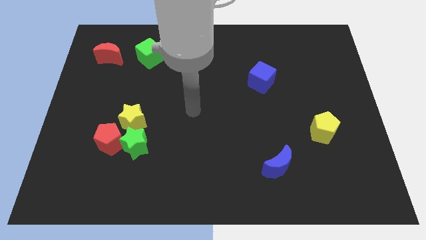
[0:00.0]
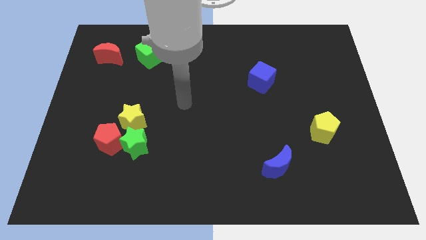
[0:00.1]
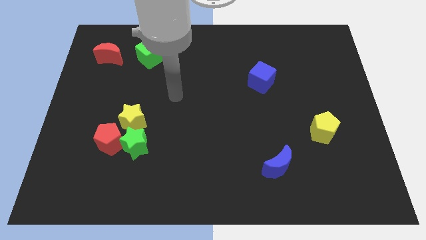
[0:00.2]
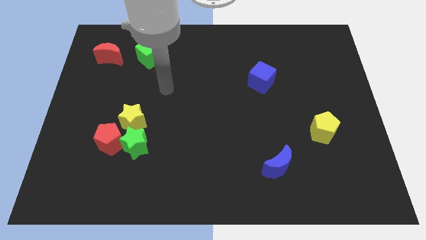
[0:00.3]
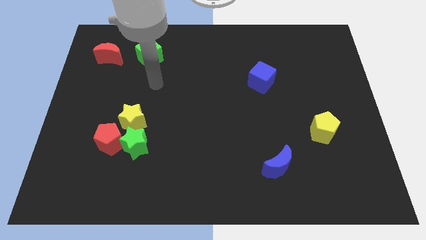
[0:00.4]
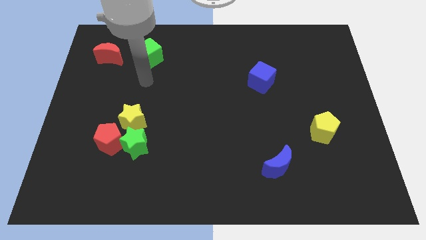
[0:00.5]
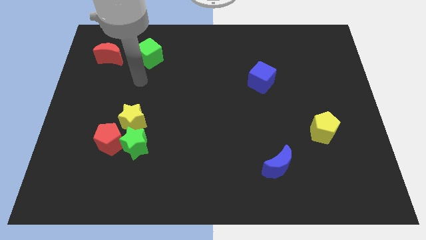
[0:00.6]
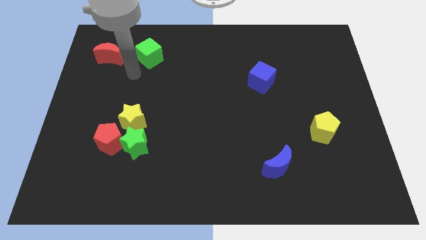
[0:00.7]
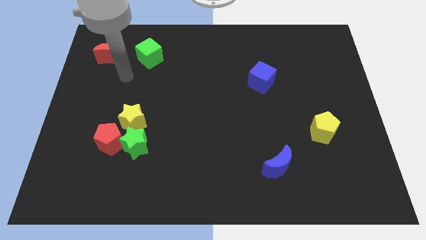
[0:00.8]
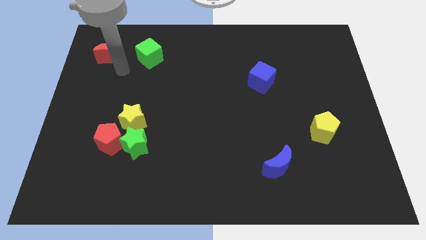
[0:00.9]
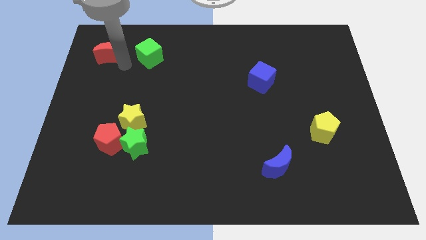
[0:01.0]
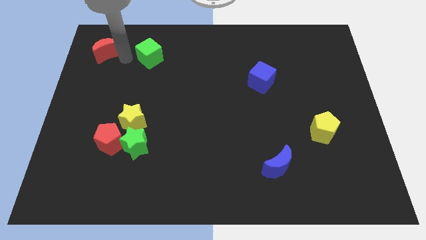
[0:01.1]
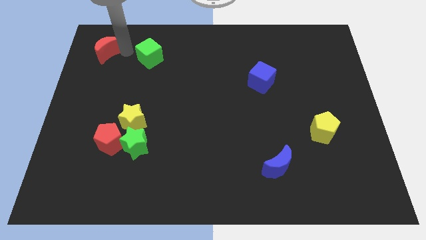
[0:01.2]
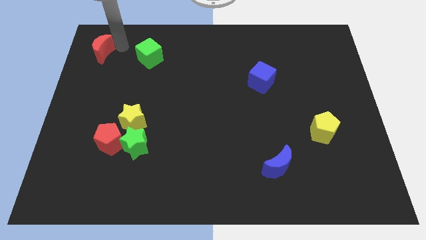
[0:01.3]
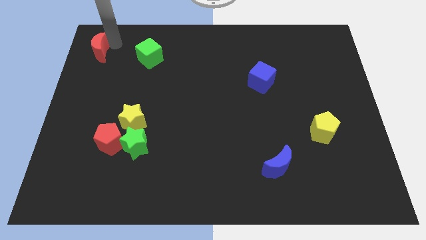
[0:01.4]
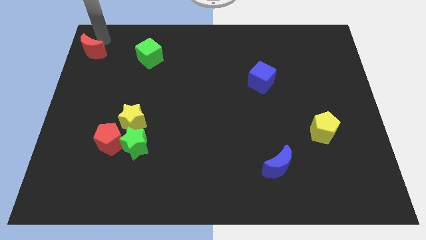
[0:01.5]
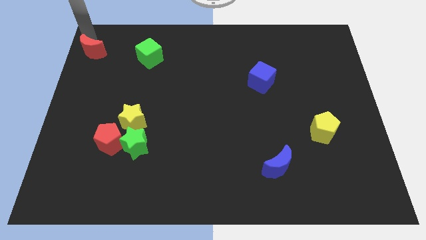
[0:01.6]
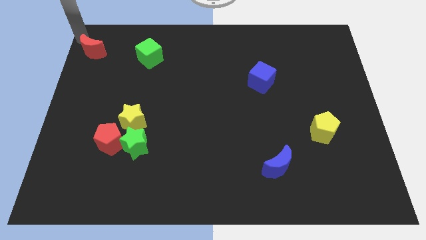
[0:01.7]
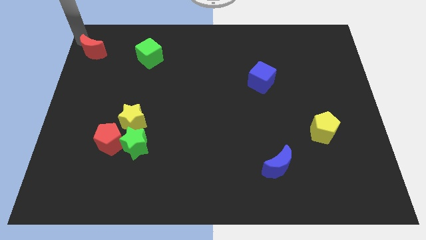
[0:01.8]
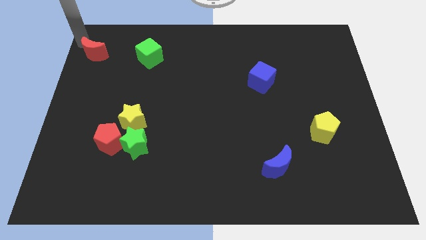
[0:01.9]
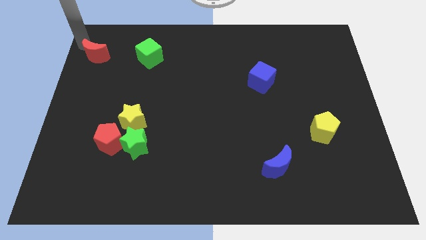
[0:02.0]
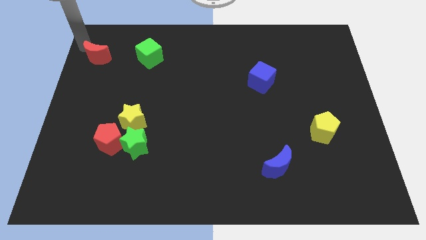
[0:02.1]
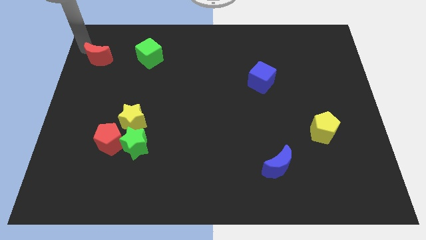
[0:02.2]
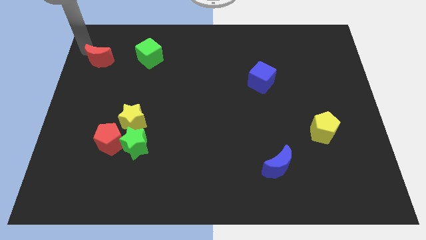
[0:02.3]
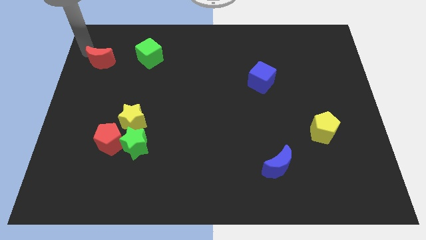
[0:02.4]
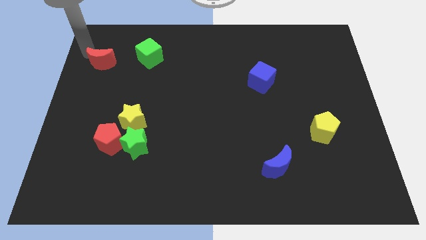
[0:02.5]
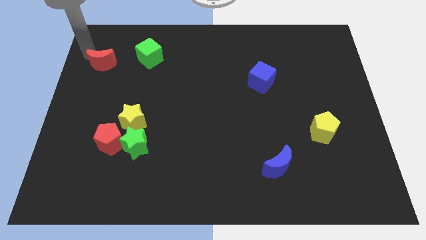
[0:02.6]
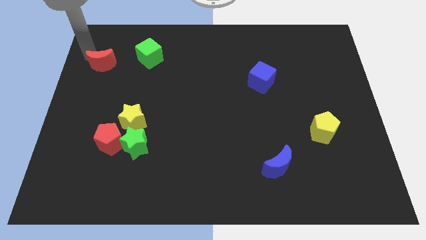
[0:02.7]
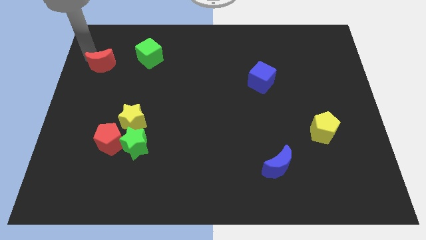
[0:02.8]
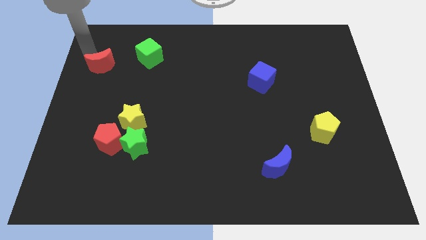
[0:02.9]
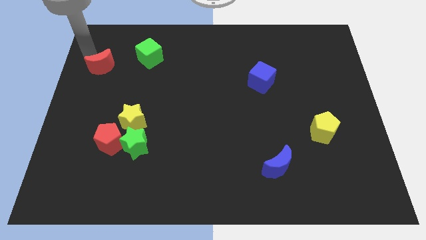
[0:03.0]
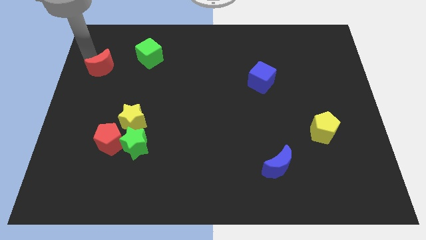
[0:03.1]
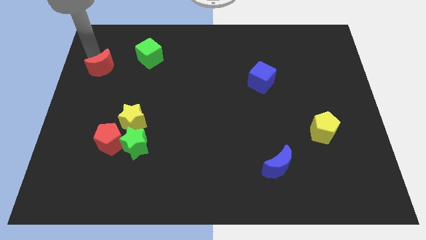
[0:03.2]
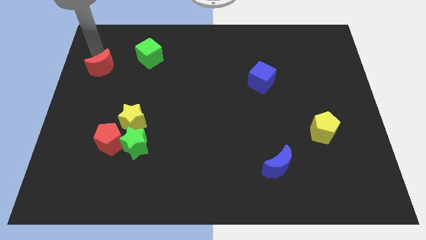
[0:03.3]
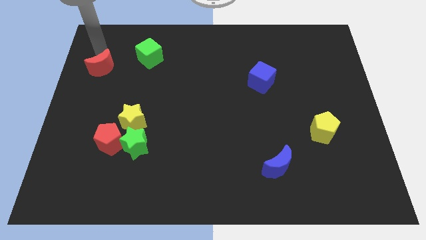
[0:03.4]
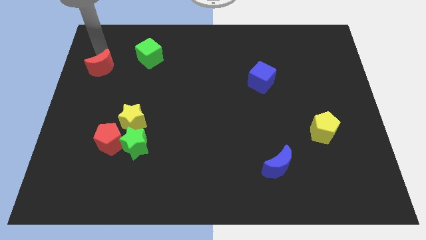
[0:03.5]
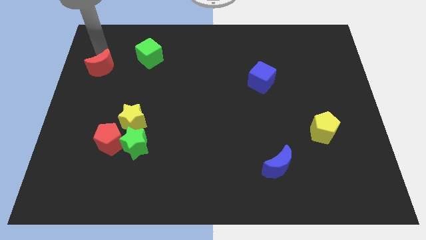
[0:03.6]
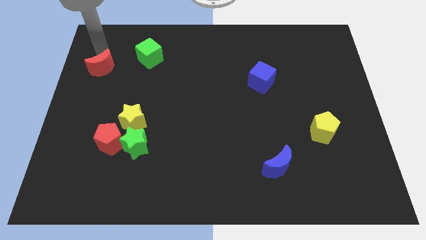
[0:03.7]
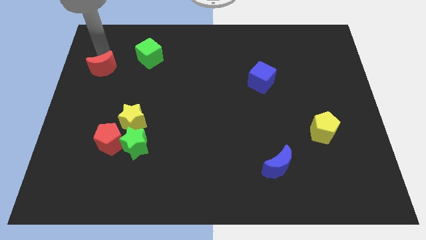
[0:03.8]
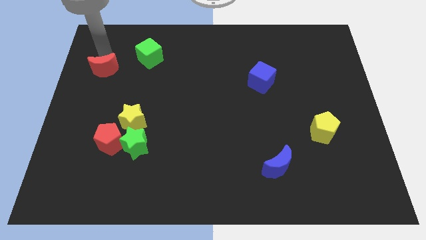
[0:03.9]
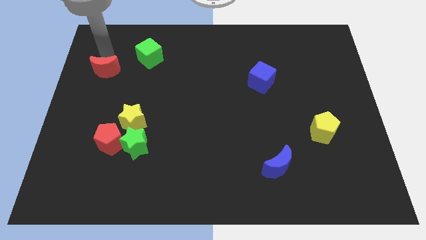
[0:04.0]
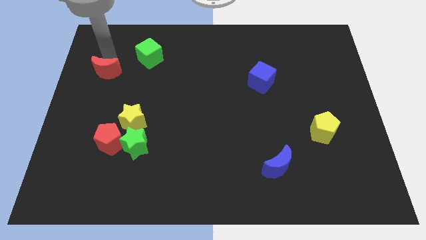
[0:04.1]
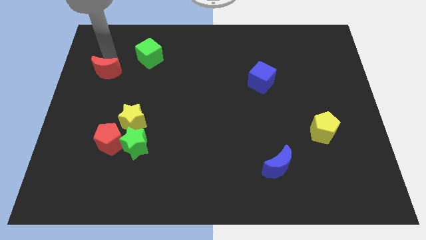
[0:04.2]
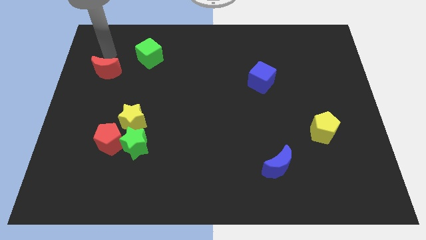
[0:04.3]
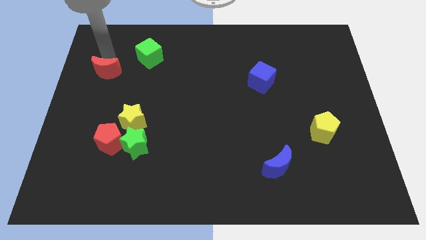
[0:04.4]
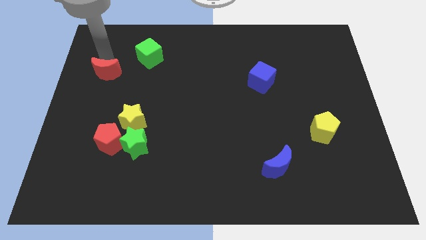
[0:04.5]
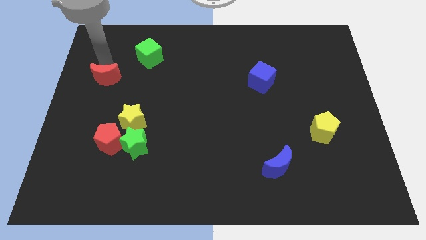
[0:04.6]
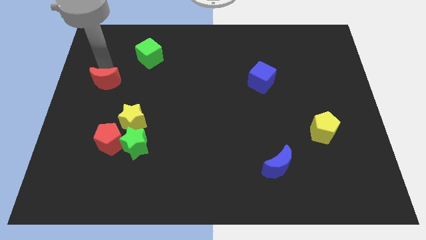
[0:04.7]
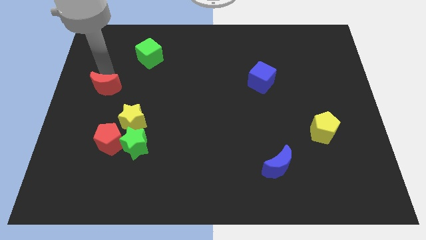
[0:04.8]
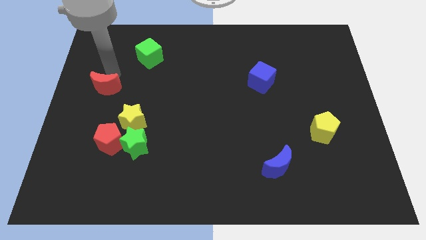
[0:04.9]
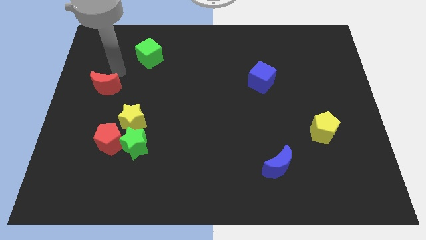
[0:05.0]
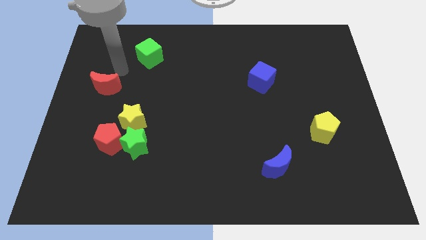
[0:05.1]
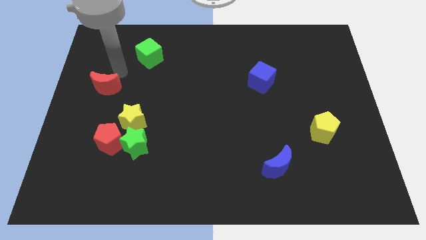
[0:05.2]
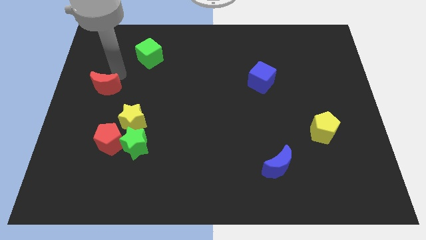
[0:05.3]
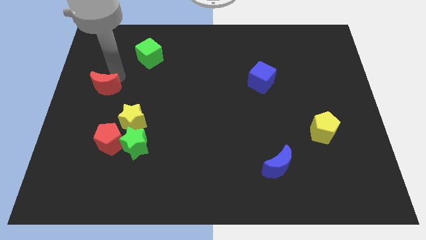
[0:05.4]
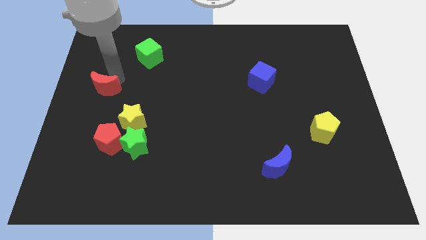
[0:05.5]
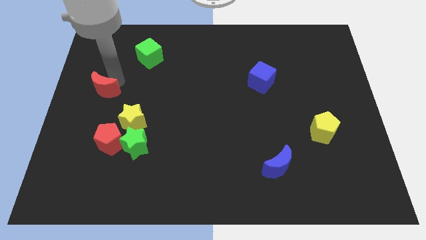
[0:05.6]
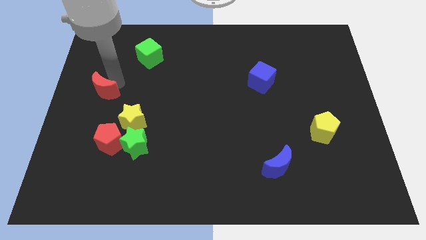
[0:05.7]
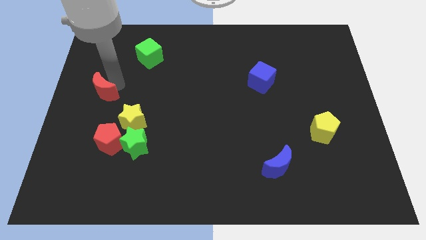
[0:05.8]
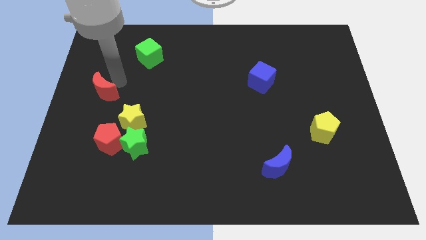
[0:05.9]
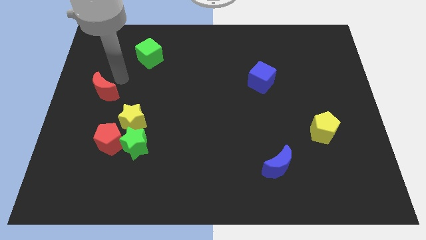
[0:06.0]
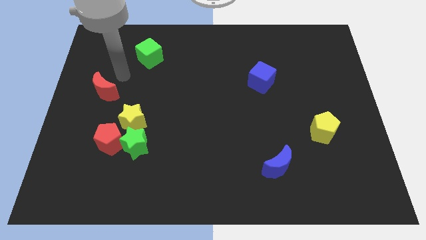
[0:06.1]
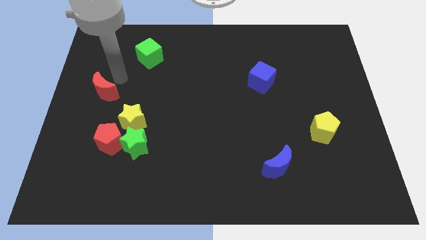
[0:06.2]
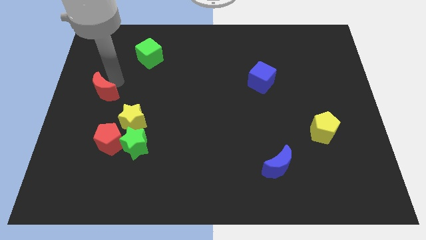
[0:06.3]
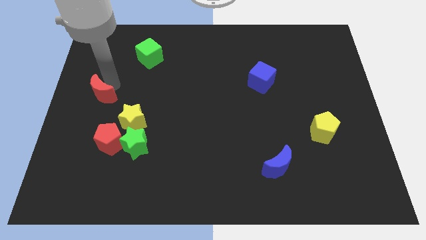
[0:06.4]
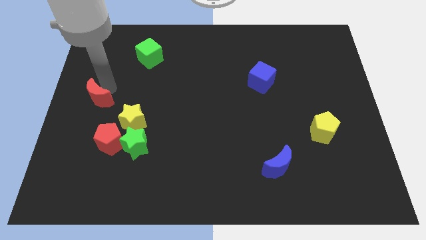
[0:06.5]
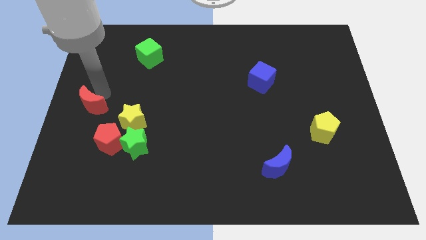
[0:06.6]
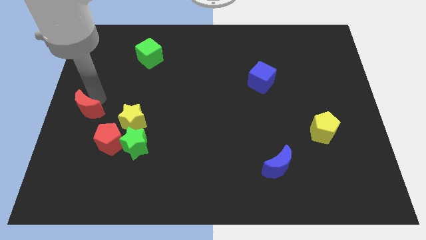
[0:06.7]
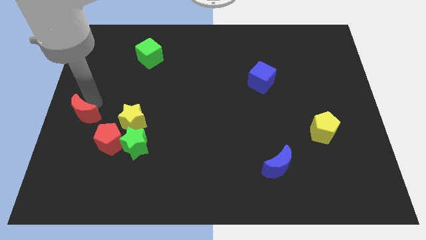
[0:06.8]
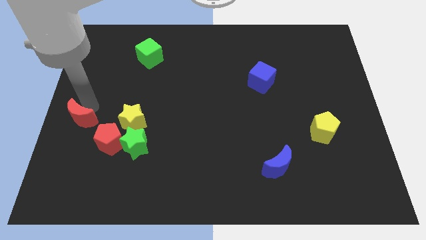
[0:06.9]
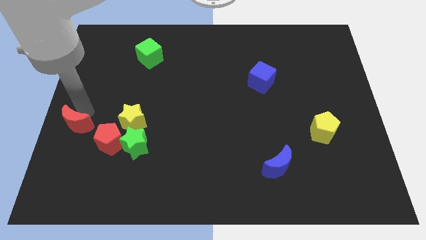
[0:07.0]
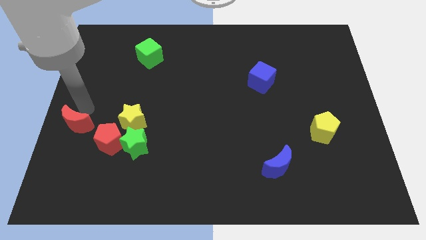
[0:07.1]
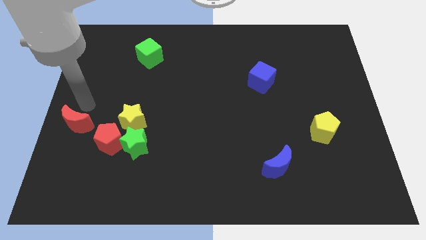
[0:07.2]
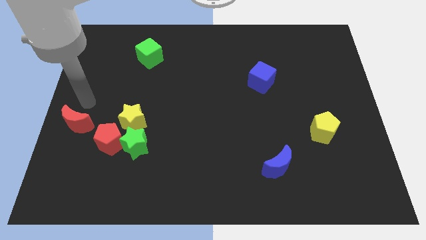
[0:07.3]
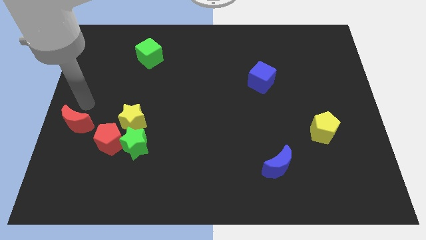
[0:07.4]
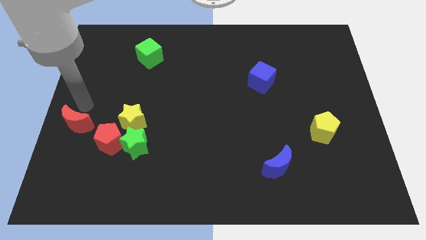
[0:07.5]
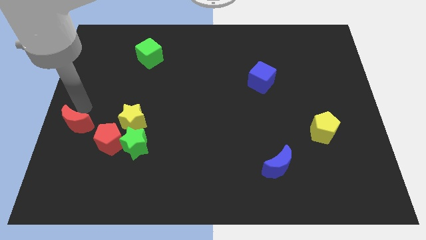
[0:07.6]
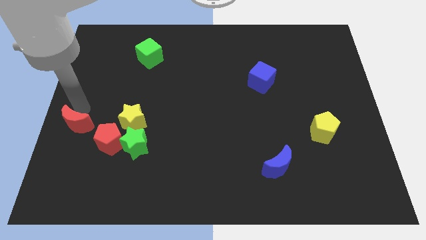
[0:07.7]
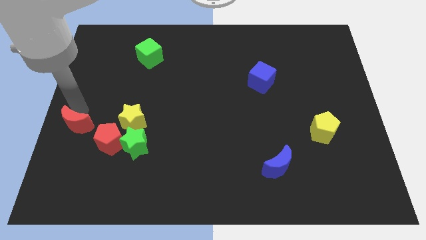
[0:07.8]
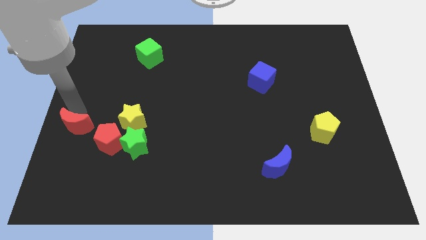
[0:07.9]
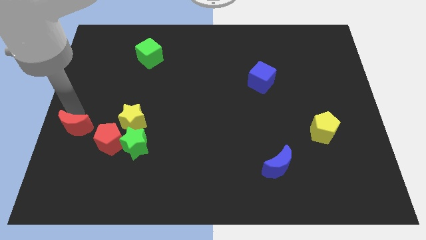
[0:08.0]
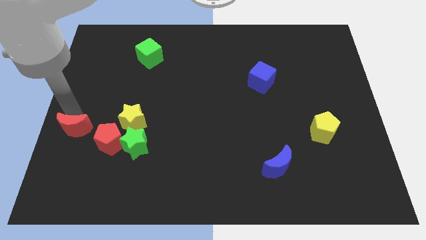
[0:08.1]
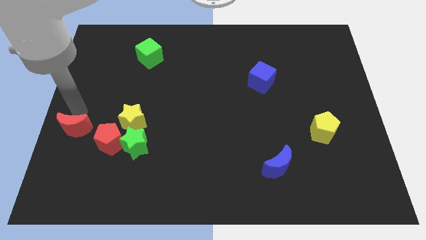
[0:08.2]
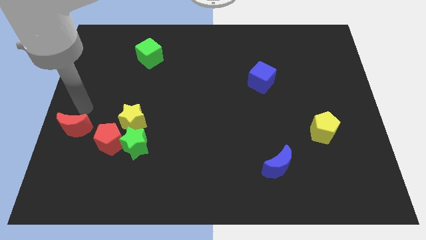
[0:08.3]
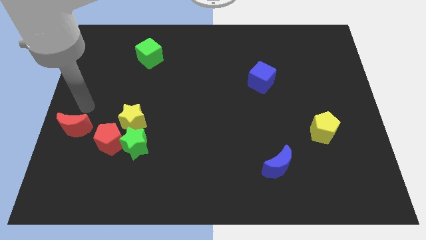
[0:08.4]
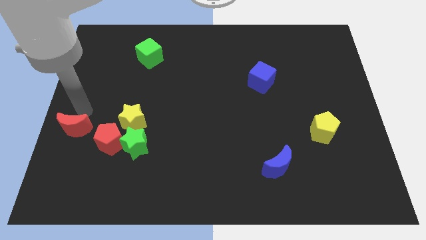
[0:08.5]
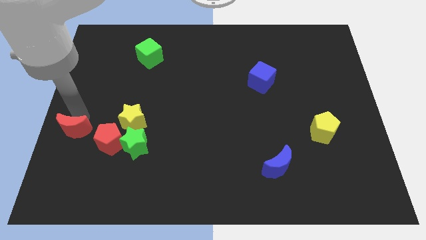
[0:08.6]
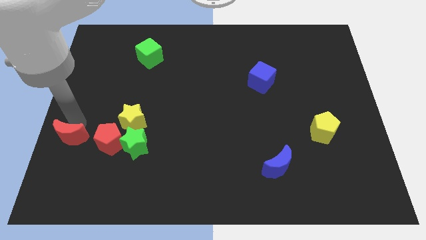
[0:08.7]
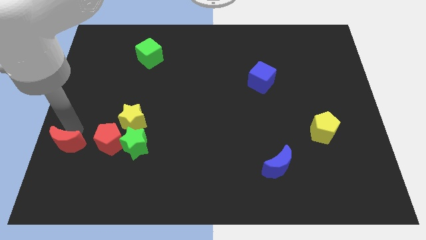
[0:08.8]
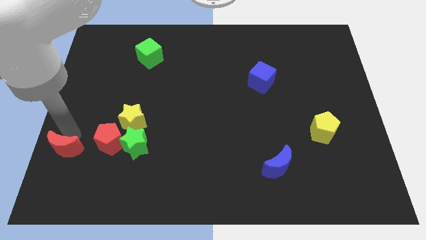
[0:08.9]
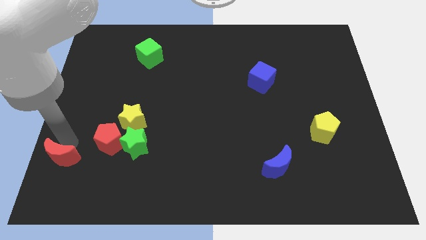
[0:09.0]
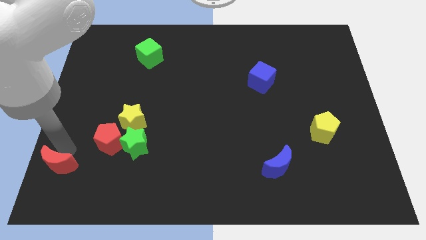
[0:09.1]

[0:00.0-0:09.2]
push the red moon to the lower left corner
